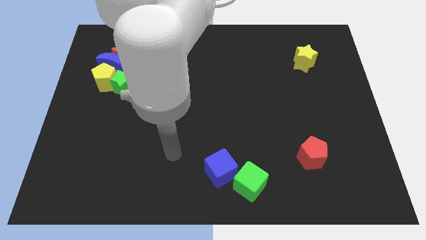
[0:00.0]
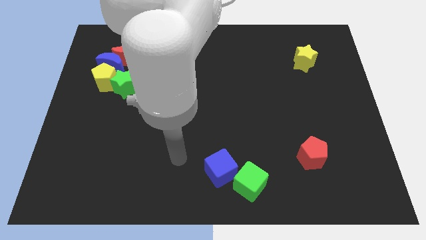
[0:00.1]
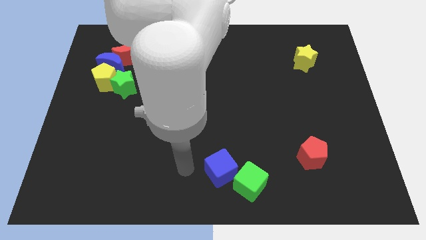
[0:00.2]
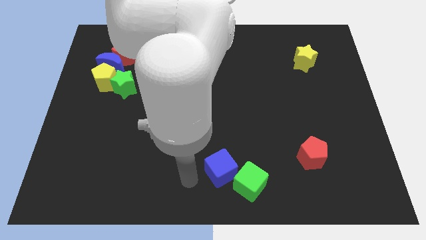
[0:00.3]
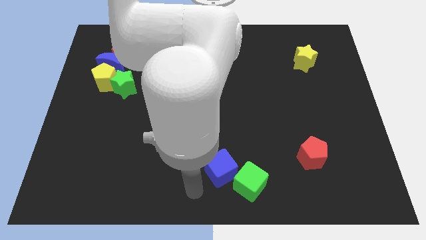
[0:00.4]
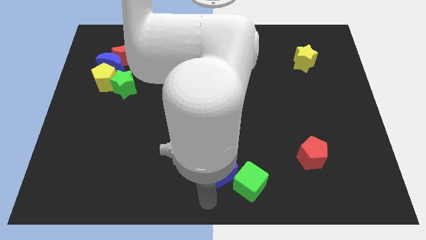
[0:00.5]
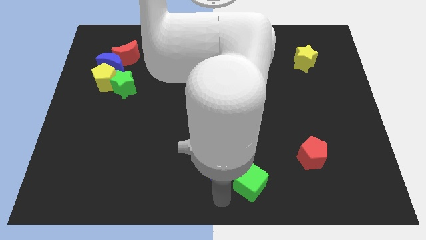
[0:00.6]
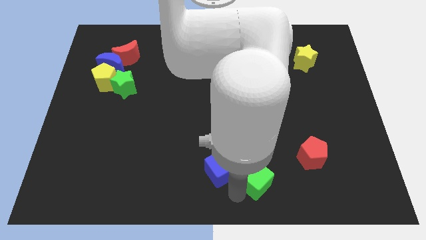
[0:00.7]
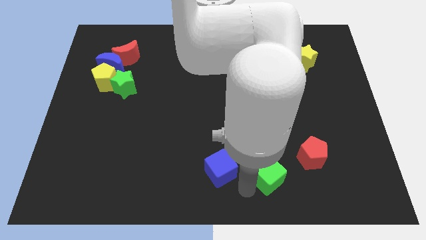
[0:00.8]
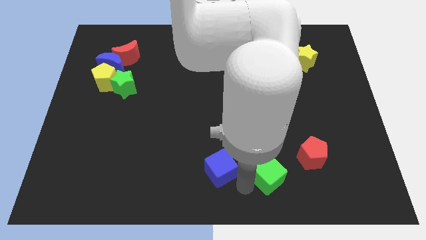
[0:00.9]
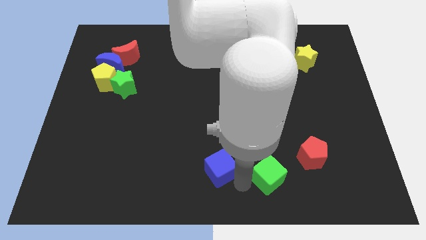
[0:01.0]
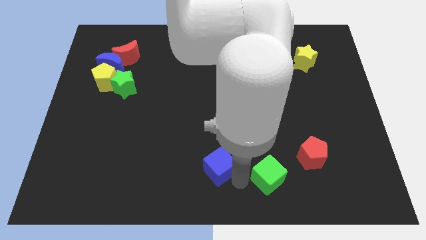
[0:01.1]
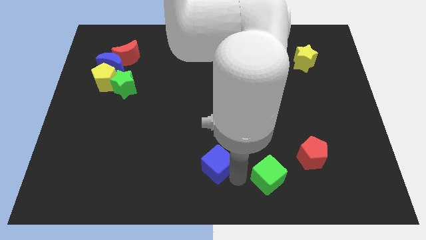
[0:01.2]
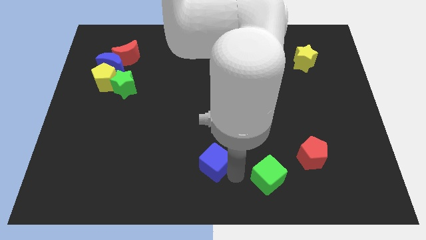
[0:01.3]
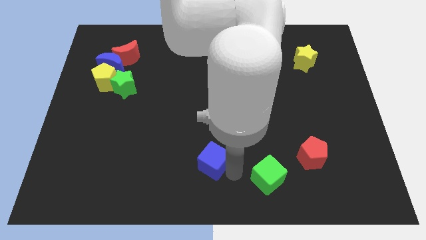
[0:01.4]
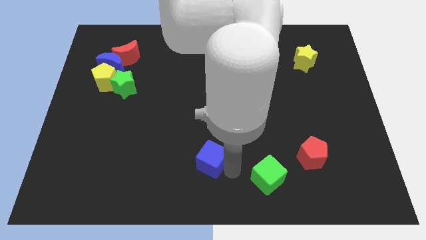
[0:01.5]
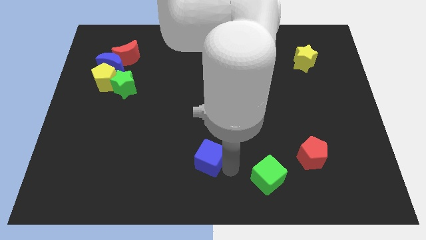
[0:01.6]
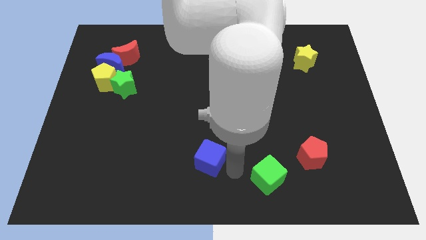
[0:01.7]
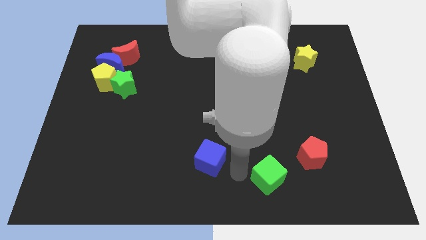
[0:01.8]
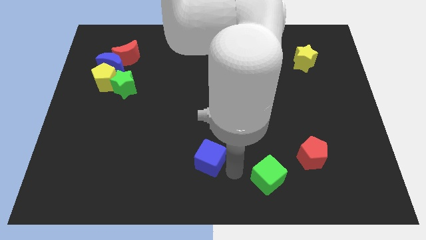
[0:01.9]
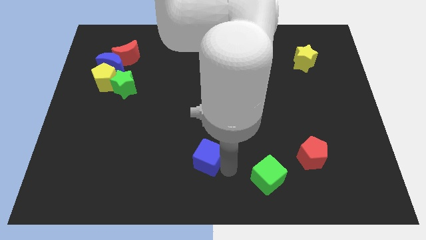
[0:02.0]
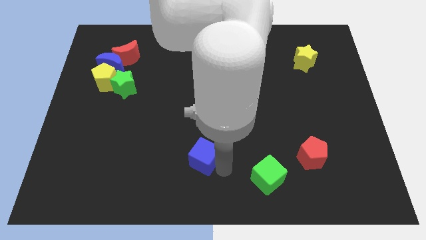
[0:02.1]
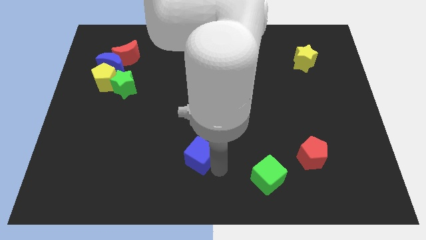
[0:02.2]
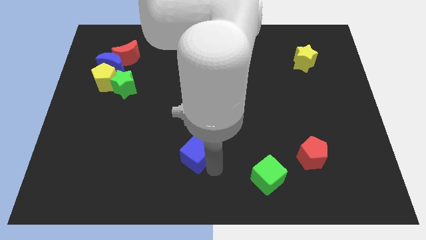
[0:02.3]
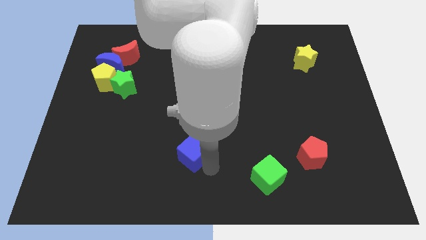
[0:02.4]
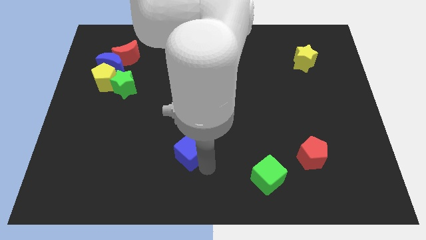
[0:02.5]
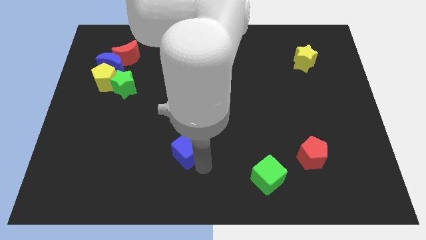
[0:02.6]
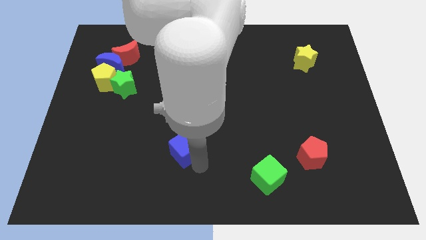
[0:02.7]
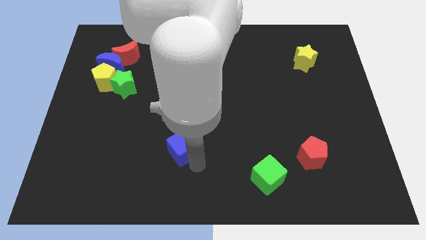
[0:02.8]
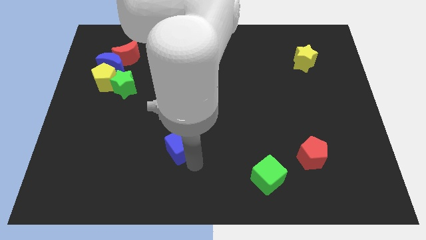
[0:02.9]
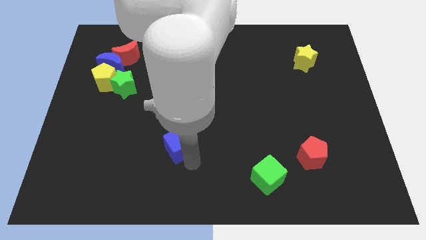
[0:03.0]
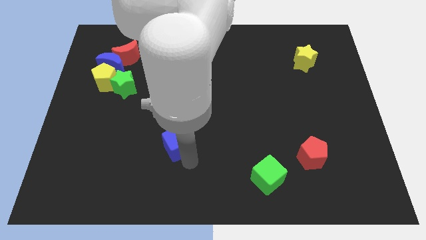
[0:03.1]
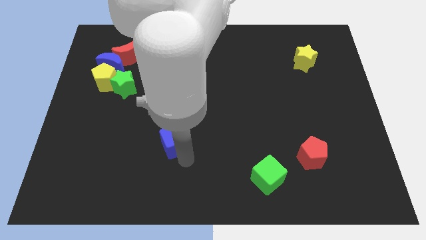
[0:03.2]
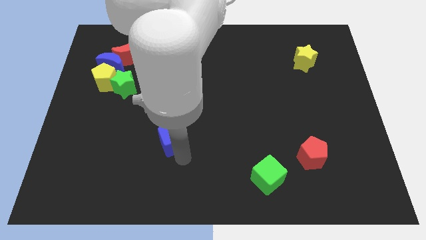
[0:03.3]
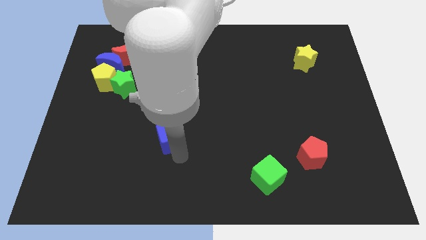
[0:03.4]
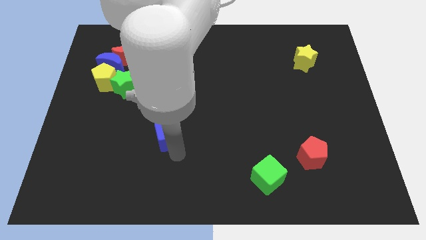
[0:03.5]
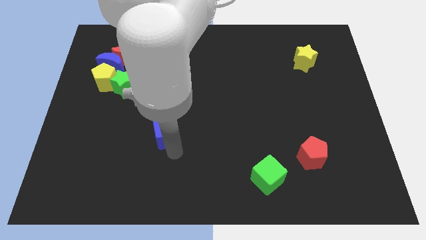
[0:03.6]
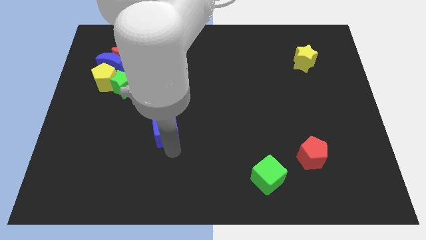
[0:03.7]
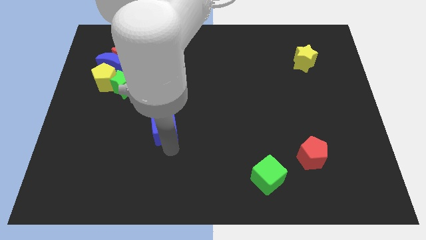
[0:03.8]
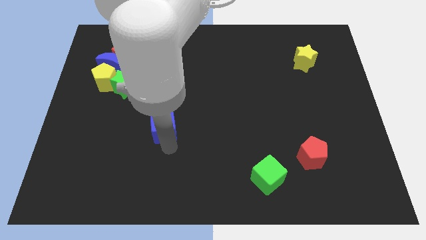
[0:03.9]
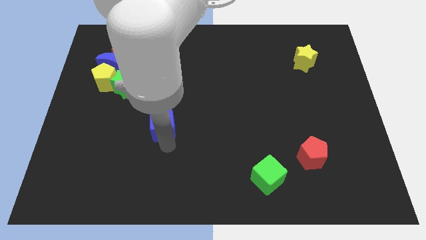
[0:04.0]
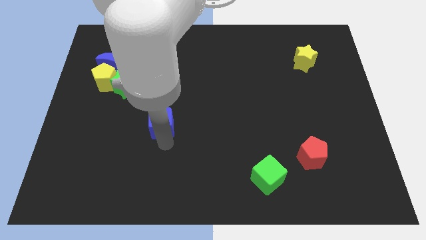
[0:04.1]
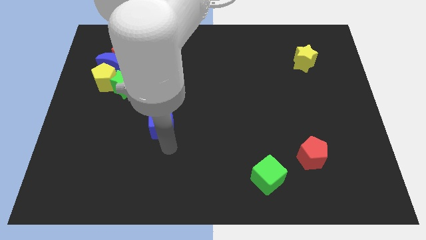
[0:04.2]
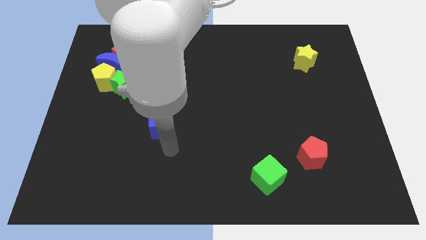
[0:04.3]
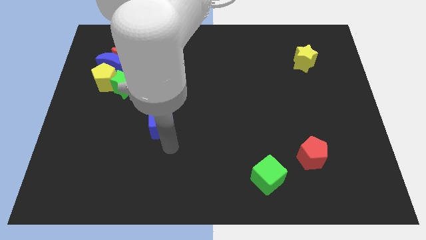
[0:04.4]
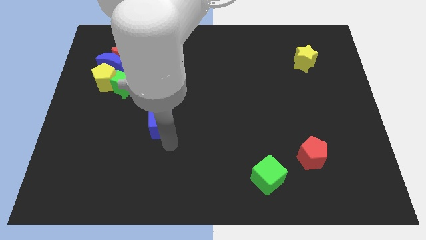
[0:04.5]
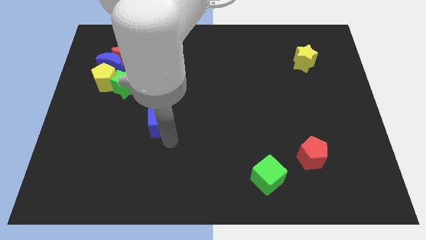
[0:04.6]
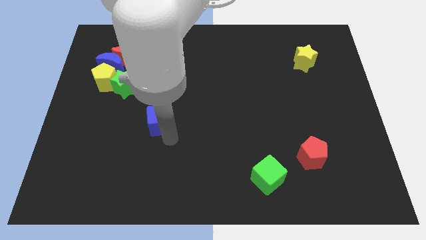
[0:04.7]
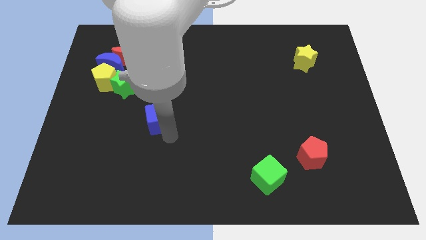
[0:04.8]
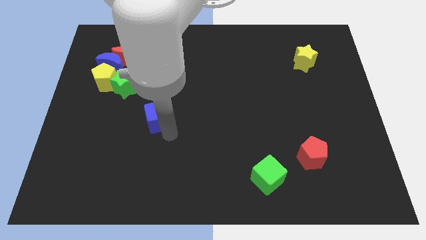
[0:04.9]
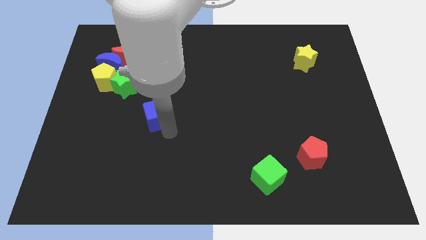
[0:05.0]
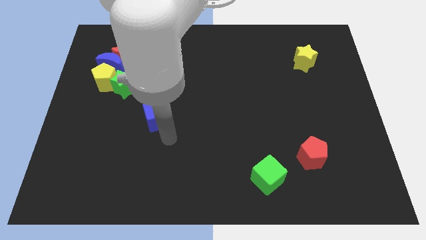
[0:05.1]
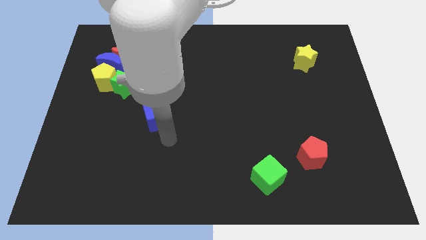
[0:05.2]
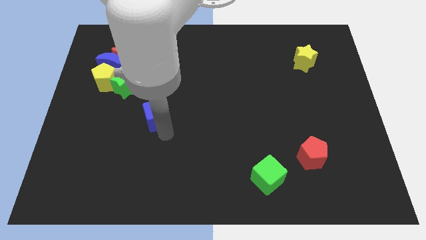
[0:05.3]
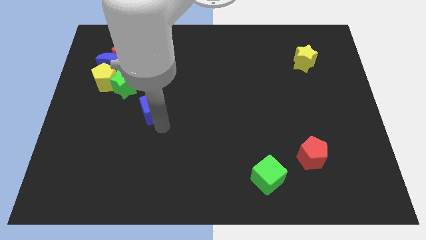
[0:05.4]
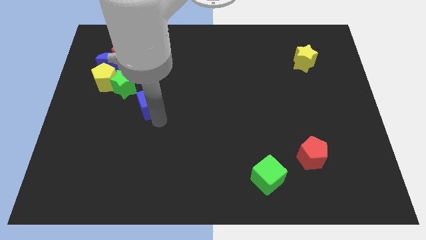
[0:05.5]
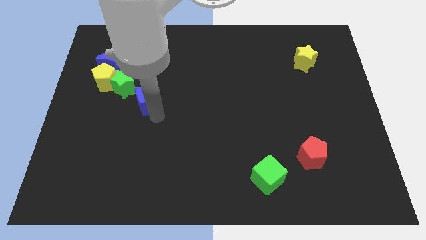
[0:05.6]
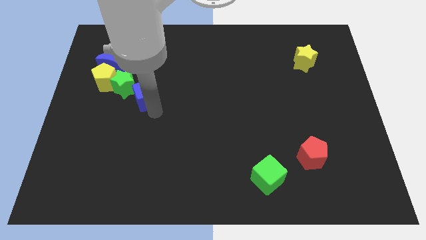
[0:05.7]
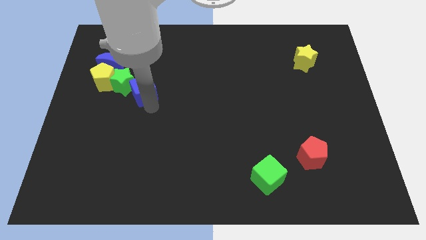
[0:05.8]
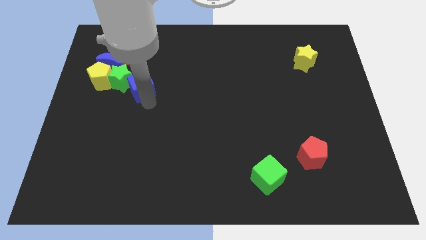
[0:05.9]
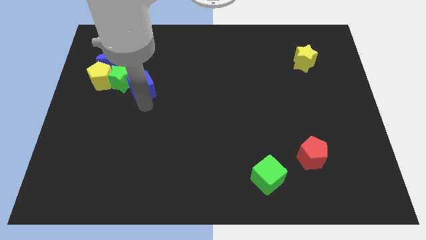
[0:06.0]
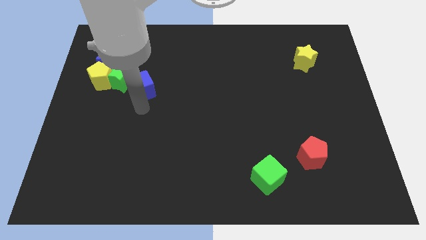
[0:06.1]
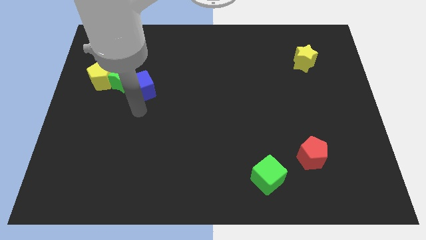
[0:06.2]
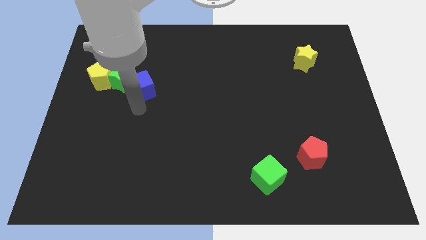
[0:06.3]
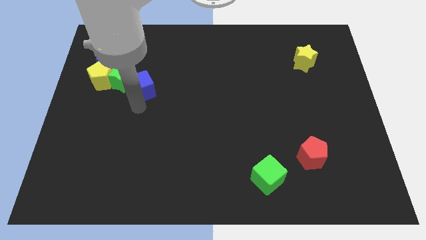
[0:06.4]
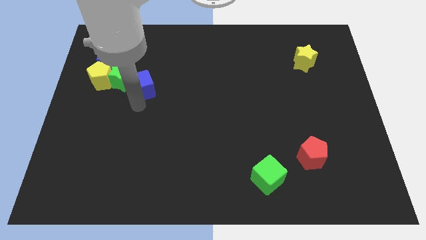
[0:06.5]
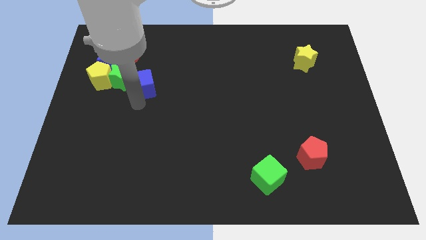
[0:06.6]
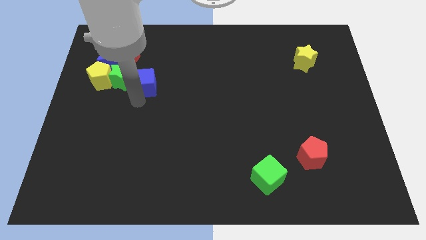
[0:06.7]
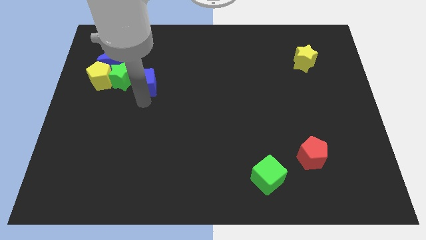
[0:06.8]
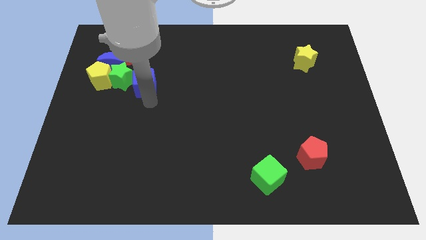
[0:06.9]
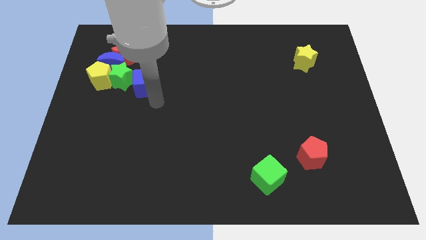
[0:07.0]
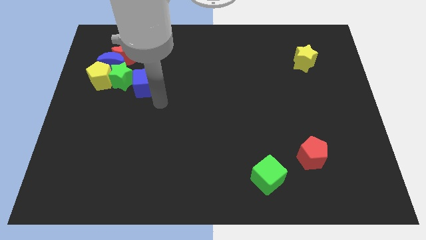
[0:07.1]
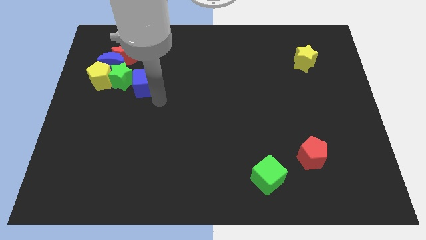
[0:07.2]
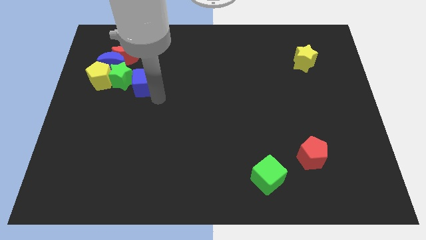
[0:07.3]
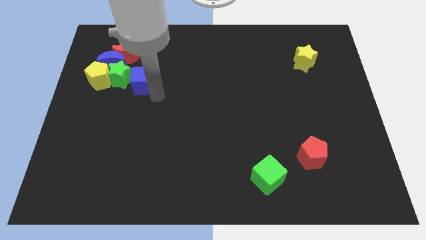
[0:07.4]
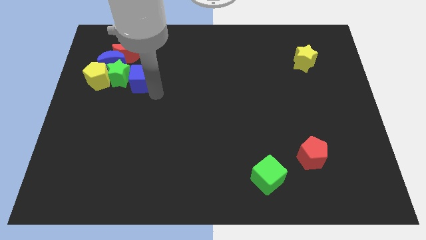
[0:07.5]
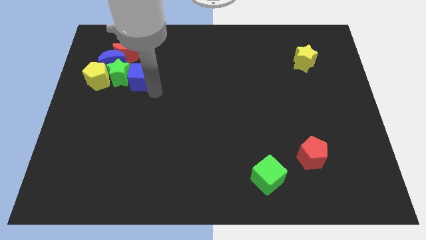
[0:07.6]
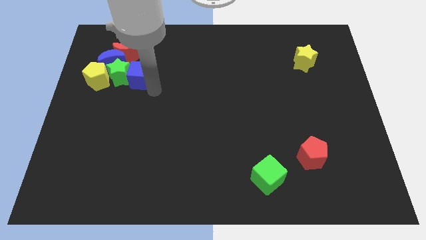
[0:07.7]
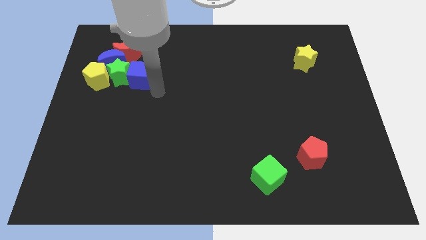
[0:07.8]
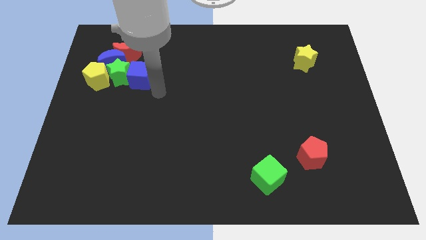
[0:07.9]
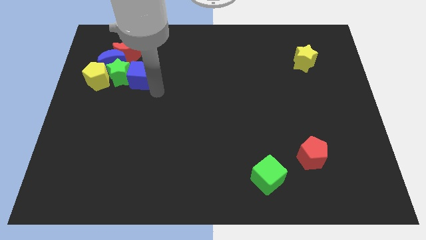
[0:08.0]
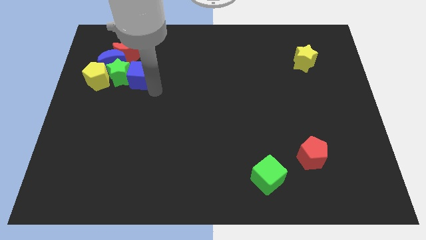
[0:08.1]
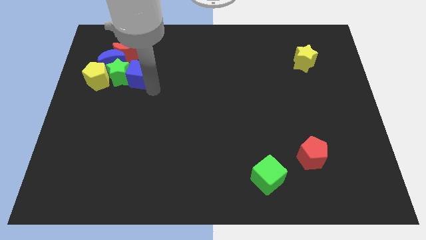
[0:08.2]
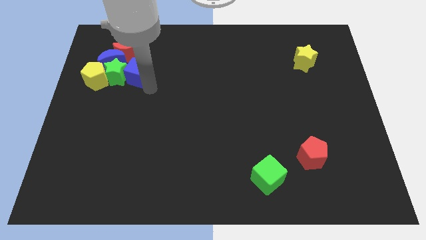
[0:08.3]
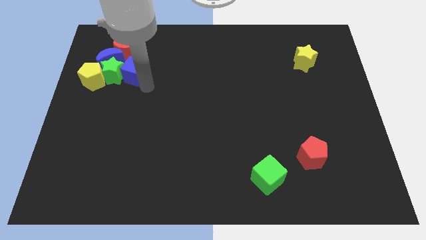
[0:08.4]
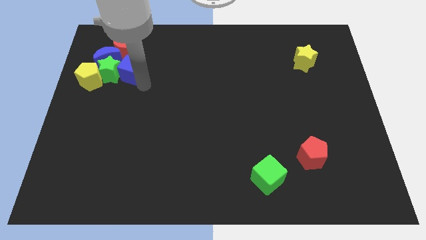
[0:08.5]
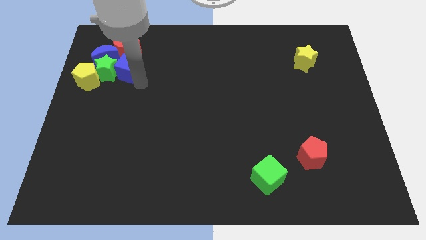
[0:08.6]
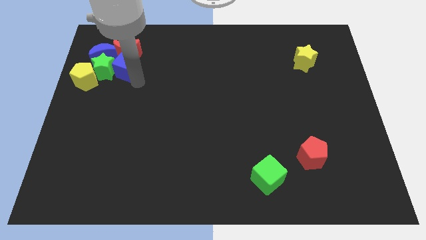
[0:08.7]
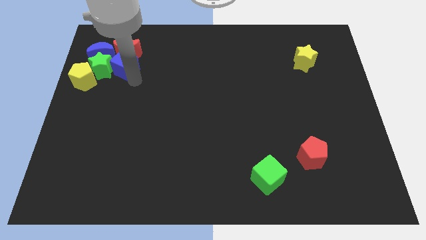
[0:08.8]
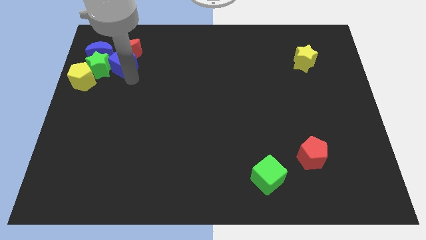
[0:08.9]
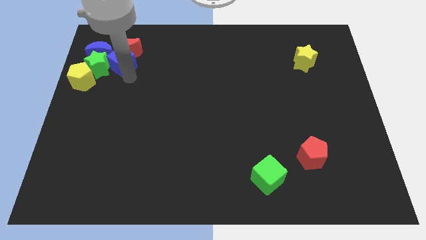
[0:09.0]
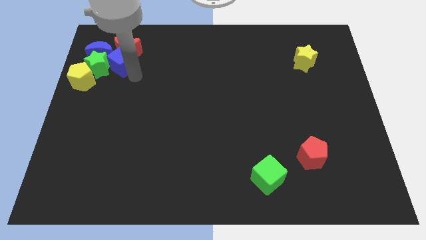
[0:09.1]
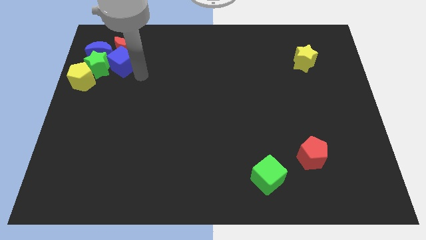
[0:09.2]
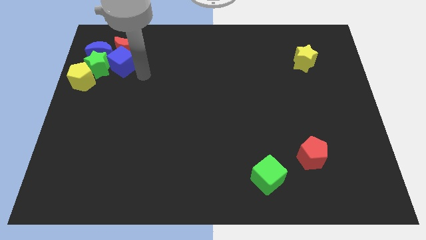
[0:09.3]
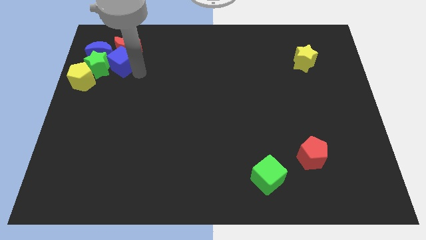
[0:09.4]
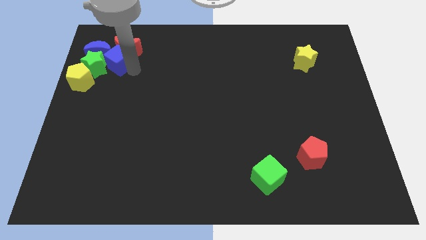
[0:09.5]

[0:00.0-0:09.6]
push the blue cube to the blue moon
